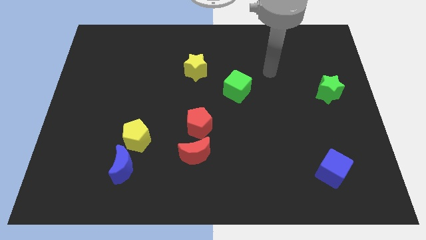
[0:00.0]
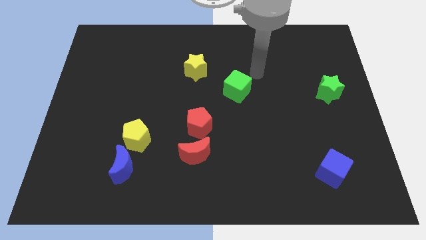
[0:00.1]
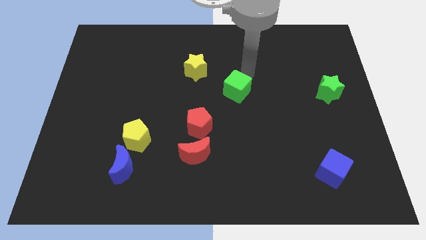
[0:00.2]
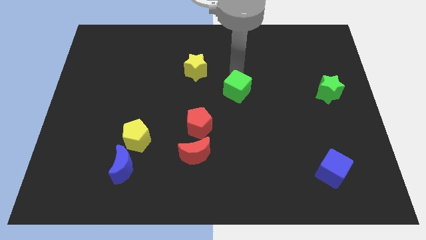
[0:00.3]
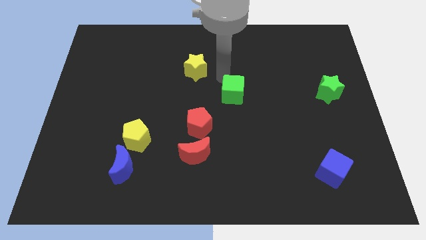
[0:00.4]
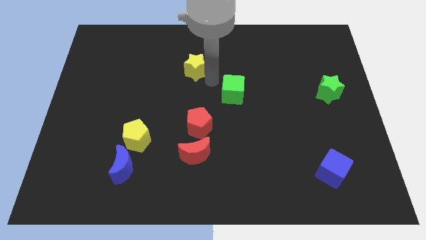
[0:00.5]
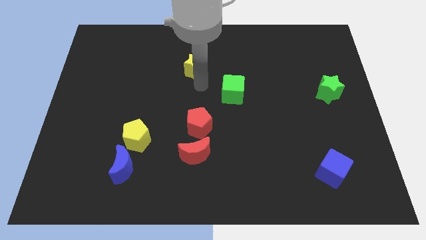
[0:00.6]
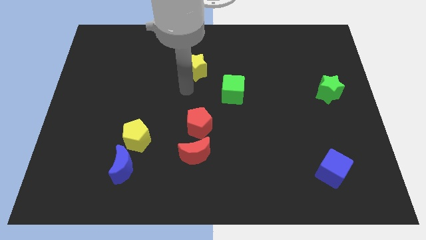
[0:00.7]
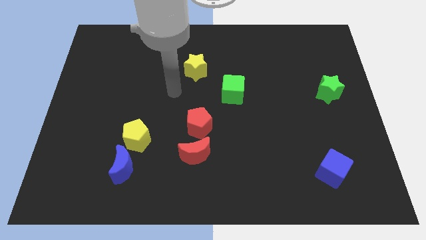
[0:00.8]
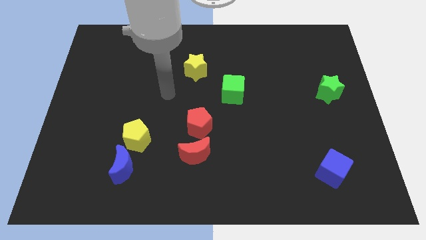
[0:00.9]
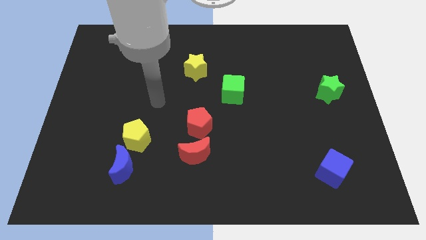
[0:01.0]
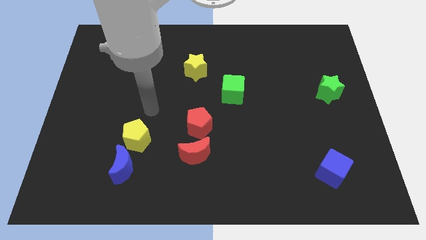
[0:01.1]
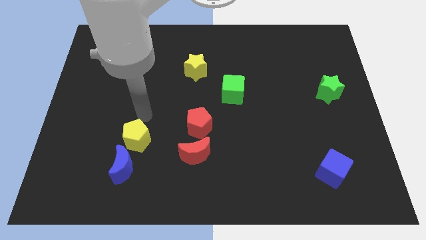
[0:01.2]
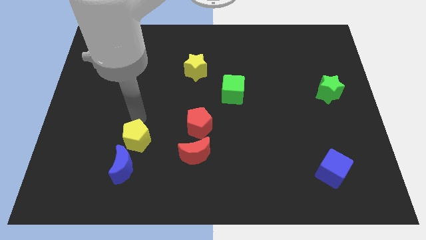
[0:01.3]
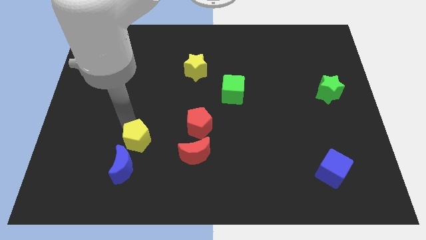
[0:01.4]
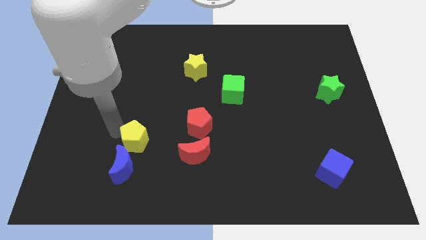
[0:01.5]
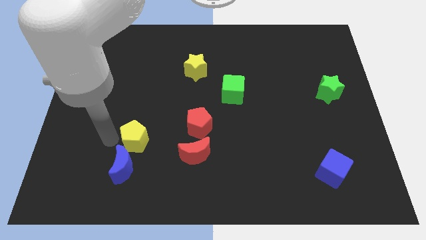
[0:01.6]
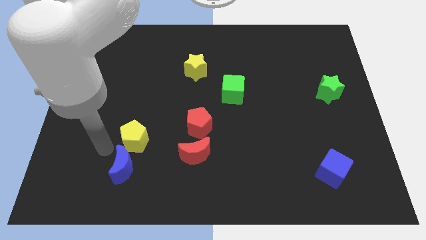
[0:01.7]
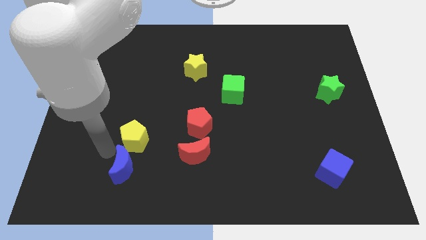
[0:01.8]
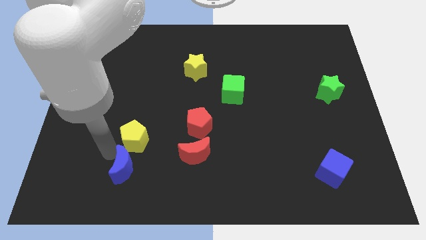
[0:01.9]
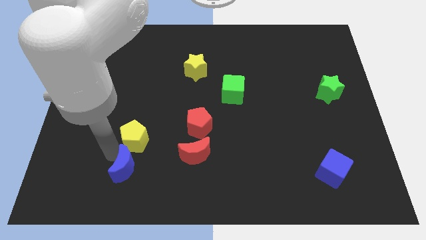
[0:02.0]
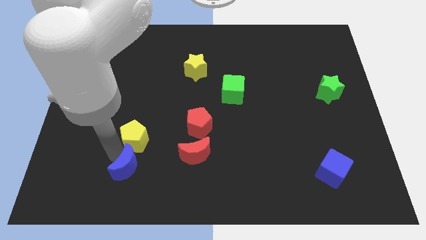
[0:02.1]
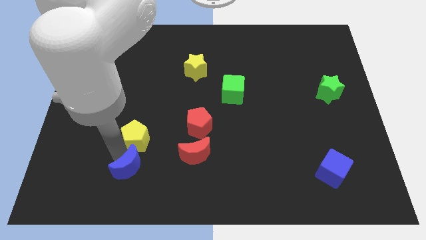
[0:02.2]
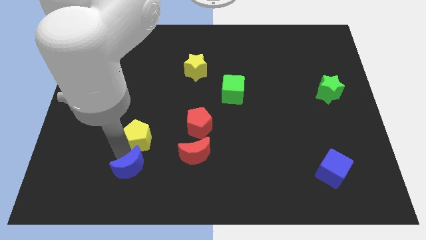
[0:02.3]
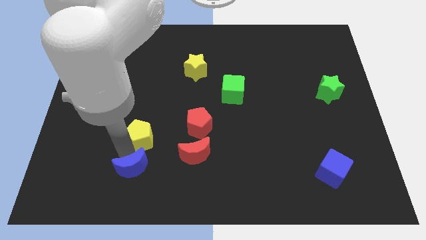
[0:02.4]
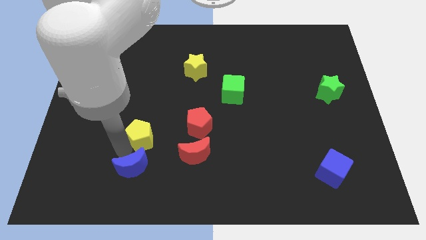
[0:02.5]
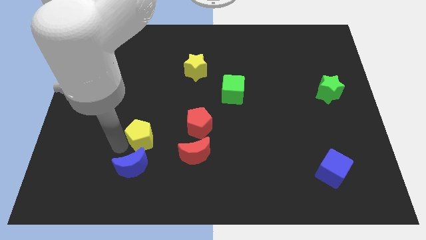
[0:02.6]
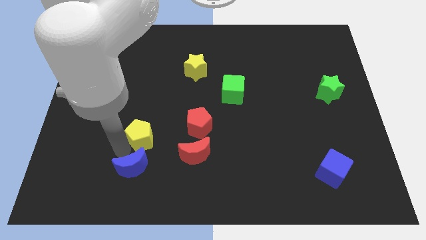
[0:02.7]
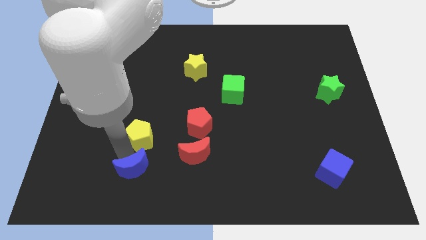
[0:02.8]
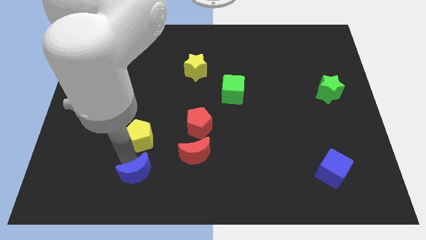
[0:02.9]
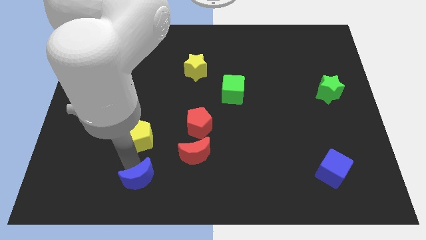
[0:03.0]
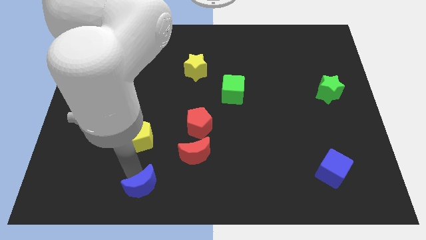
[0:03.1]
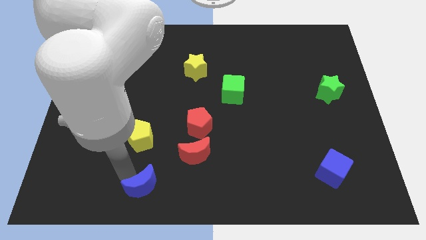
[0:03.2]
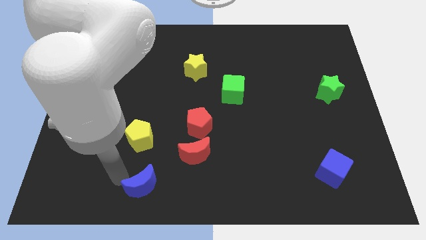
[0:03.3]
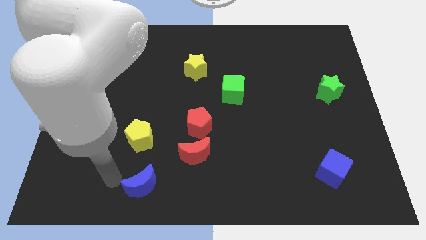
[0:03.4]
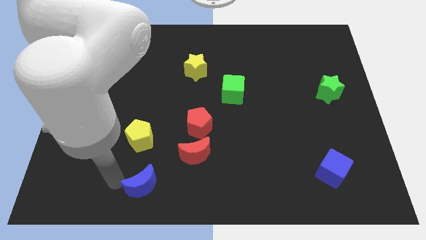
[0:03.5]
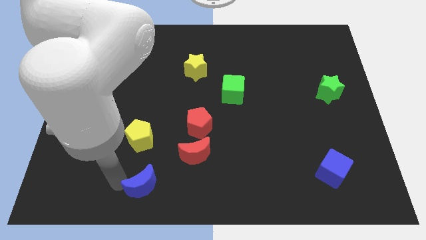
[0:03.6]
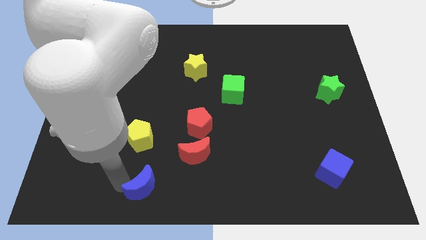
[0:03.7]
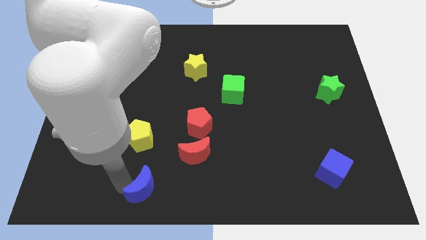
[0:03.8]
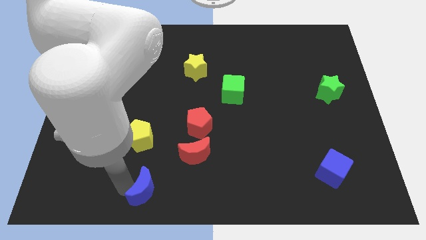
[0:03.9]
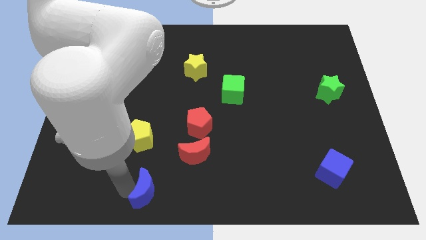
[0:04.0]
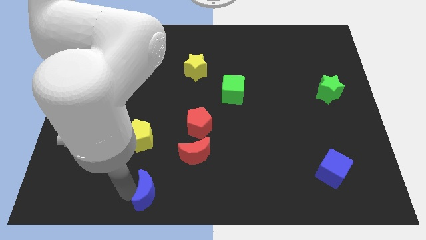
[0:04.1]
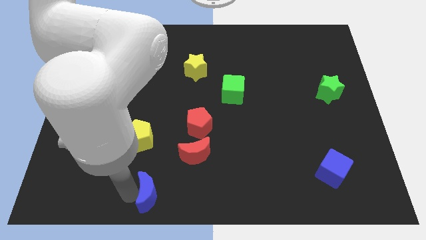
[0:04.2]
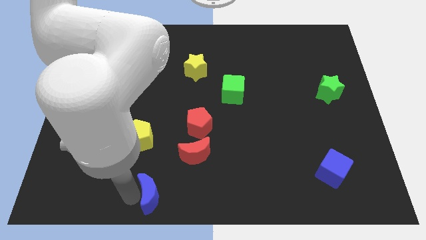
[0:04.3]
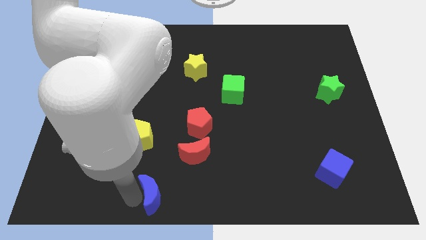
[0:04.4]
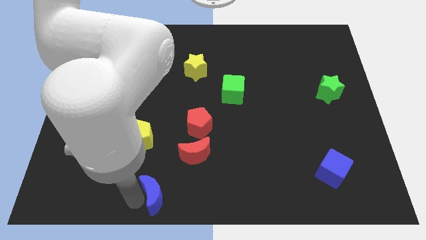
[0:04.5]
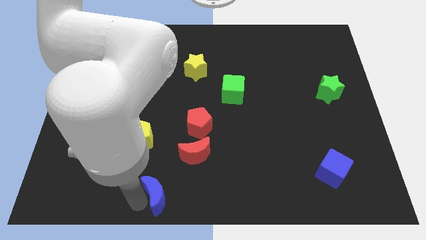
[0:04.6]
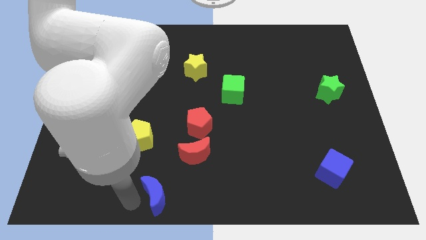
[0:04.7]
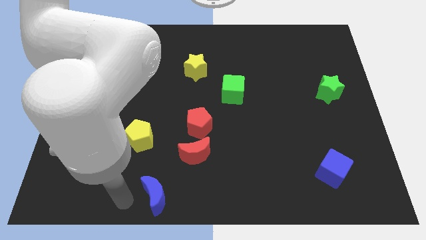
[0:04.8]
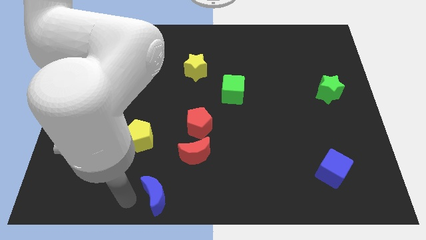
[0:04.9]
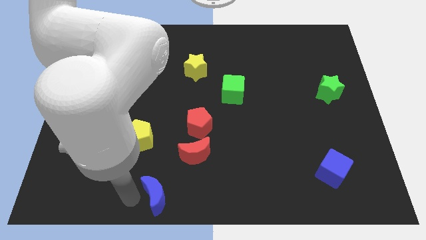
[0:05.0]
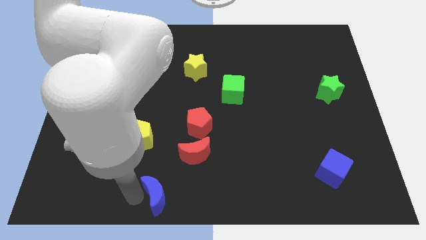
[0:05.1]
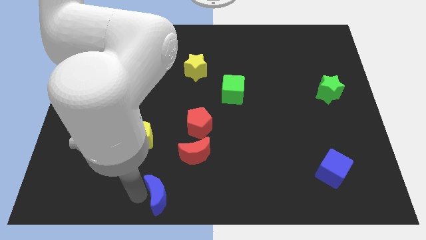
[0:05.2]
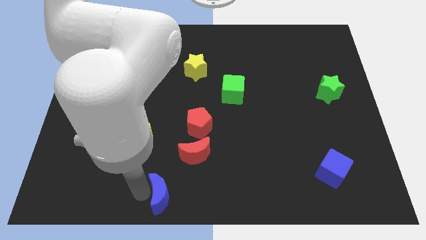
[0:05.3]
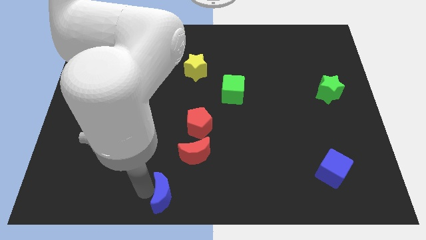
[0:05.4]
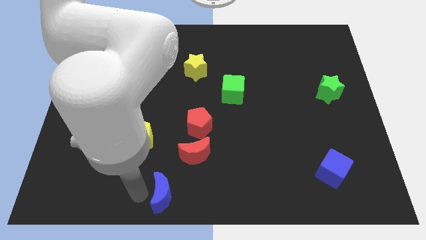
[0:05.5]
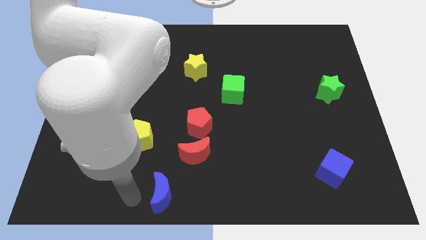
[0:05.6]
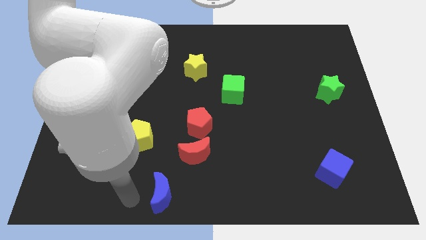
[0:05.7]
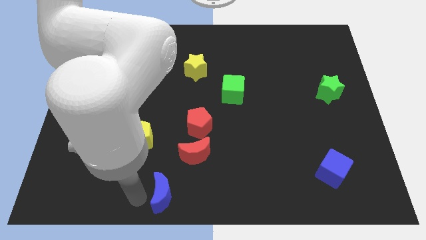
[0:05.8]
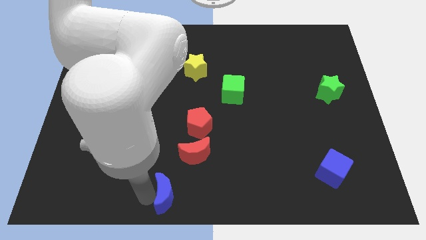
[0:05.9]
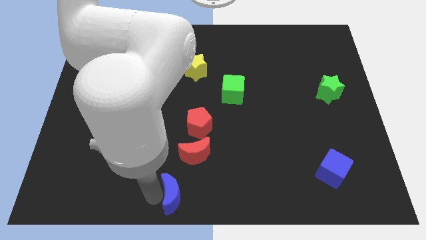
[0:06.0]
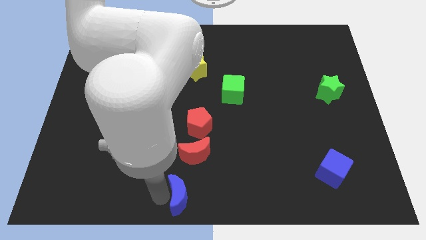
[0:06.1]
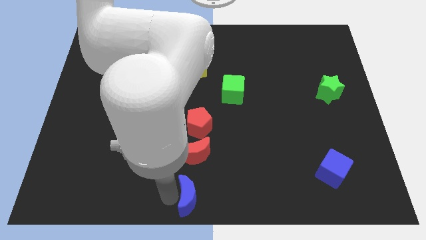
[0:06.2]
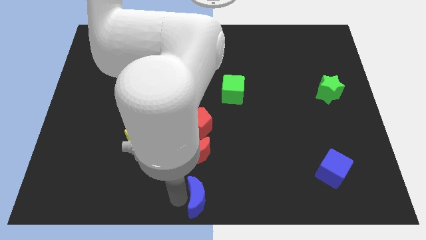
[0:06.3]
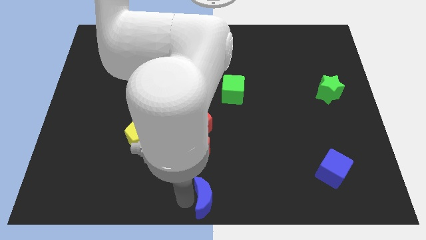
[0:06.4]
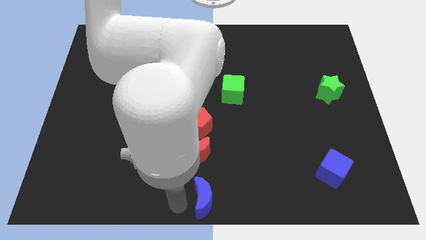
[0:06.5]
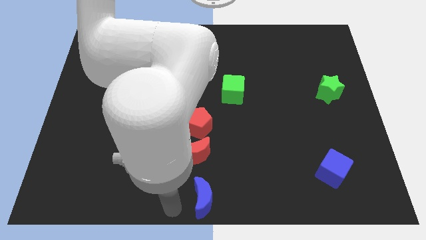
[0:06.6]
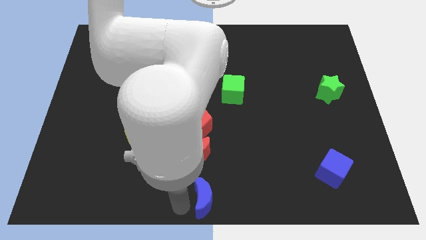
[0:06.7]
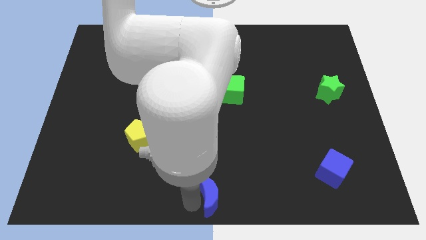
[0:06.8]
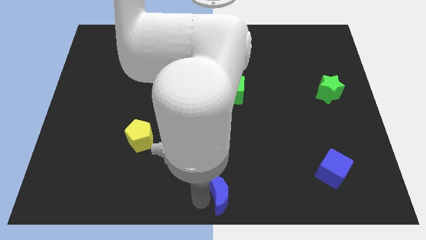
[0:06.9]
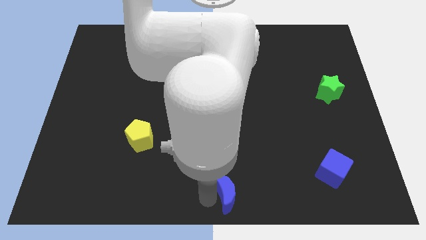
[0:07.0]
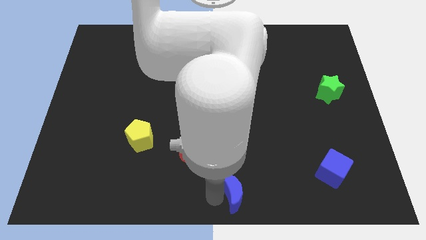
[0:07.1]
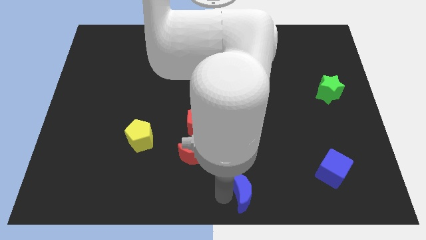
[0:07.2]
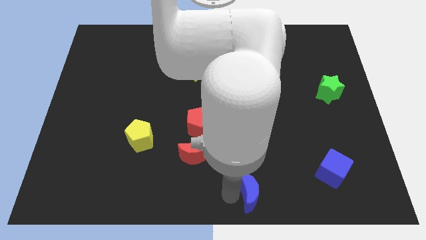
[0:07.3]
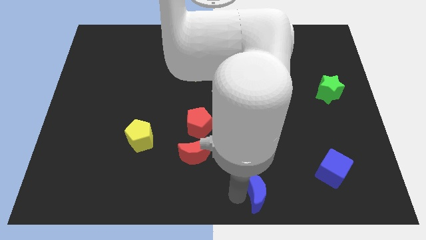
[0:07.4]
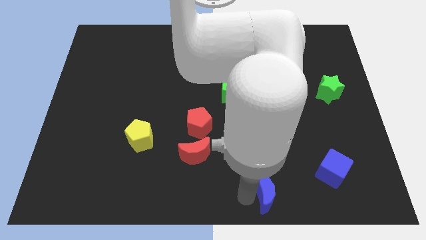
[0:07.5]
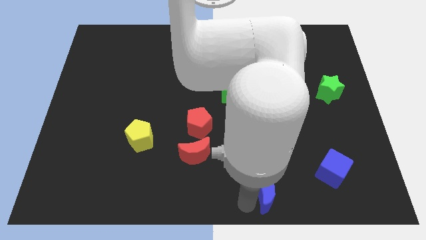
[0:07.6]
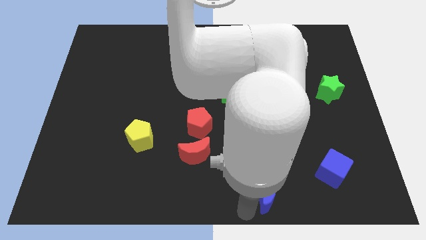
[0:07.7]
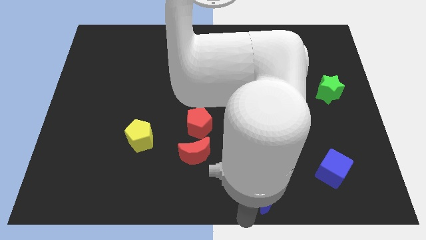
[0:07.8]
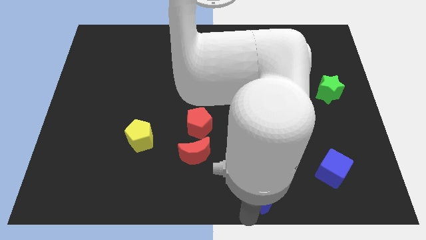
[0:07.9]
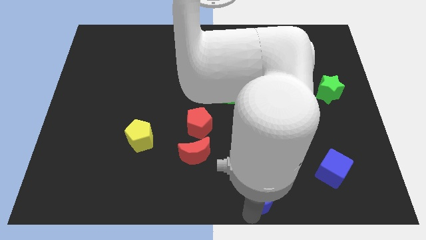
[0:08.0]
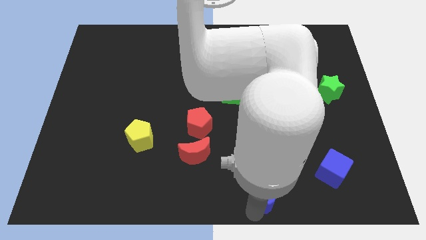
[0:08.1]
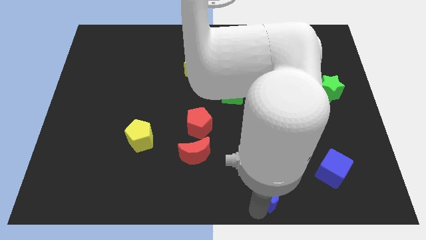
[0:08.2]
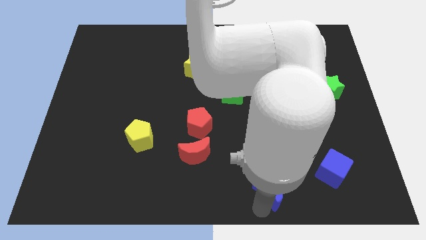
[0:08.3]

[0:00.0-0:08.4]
slide the blue moon just left of the blue cube
